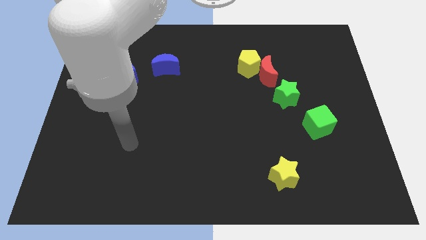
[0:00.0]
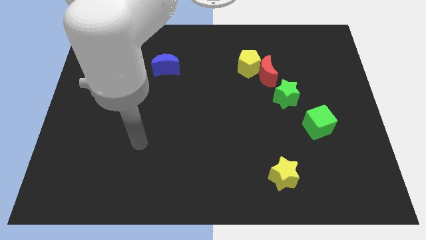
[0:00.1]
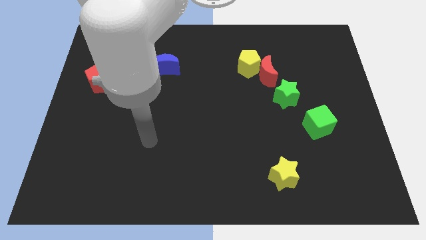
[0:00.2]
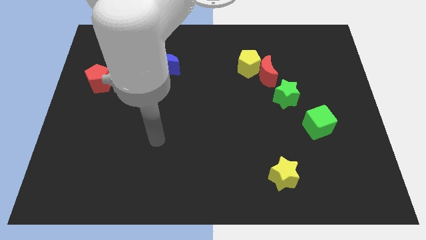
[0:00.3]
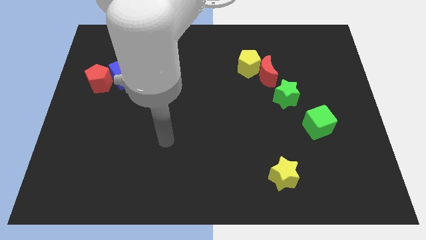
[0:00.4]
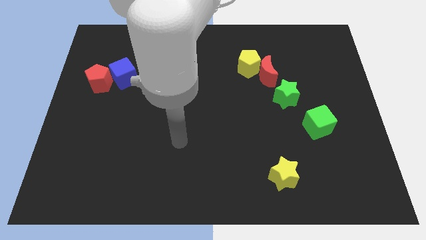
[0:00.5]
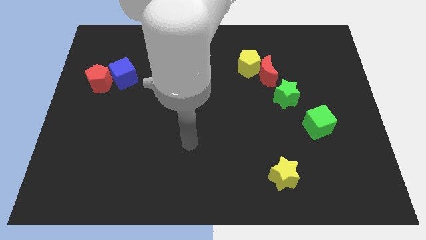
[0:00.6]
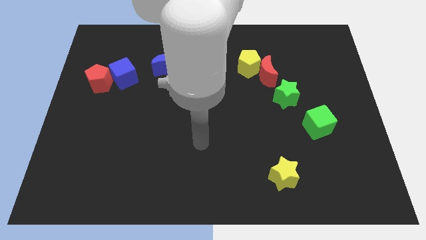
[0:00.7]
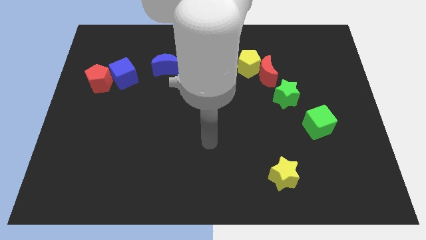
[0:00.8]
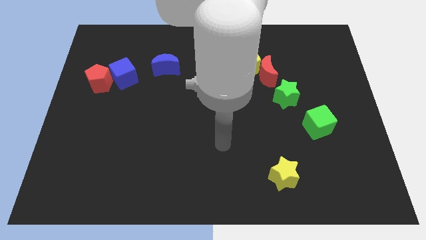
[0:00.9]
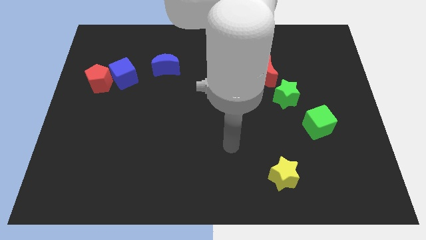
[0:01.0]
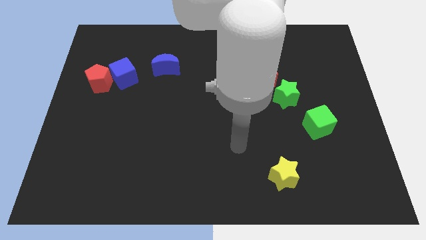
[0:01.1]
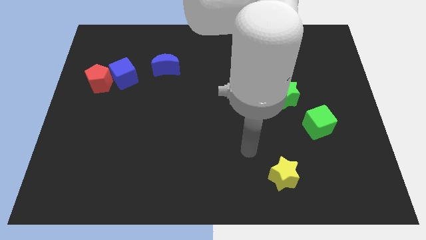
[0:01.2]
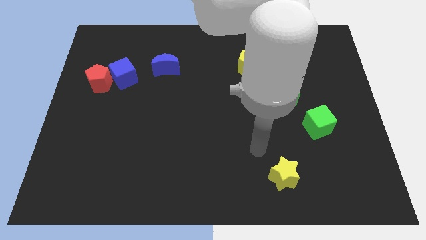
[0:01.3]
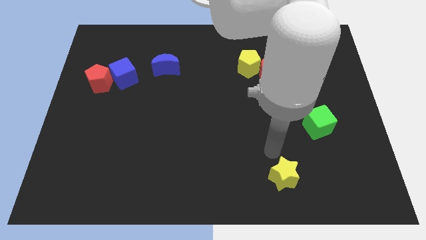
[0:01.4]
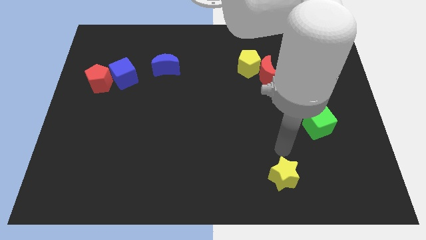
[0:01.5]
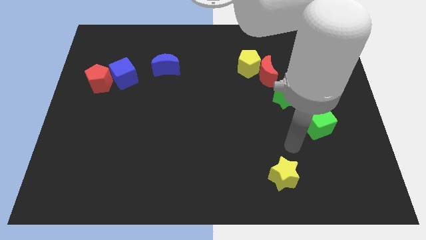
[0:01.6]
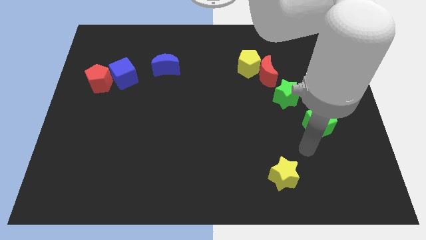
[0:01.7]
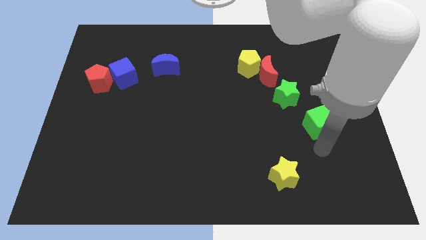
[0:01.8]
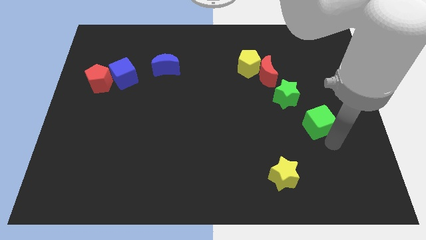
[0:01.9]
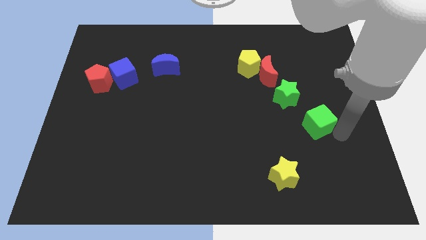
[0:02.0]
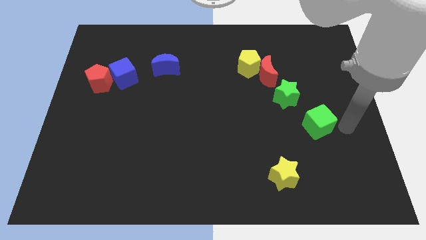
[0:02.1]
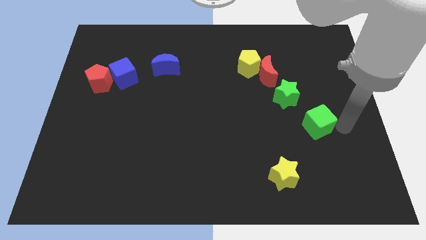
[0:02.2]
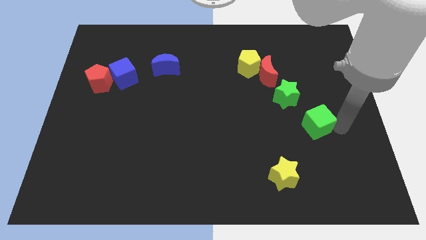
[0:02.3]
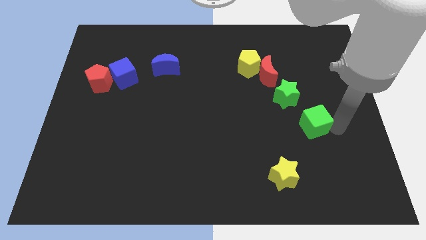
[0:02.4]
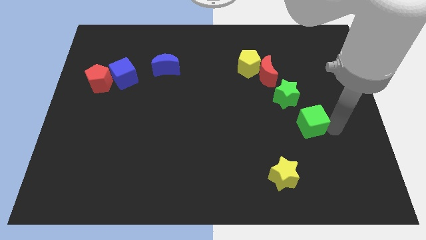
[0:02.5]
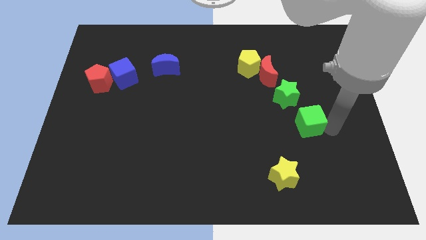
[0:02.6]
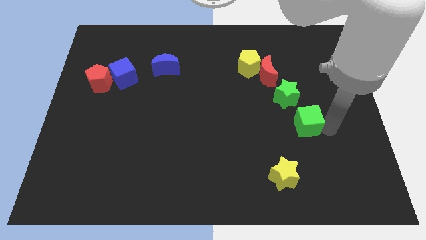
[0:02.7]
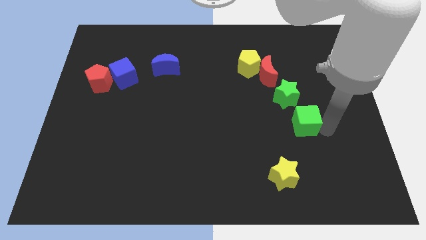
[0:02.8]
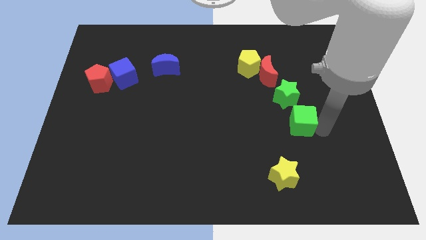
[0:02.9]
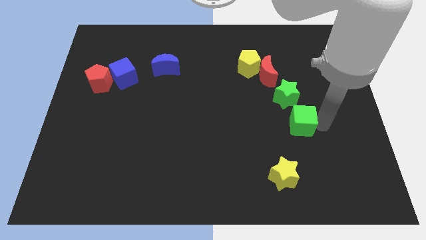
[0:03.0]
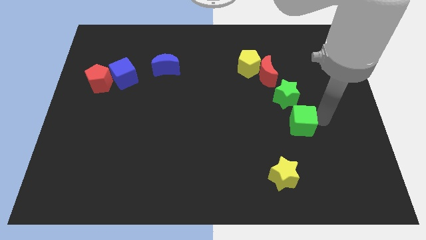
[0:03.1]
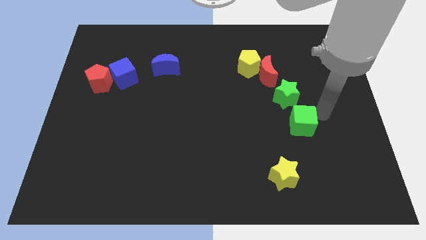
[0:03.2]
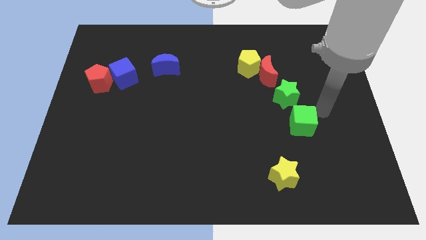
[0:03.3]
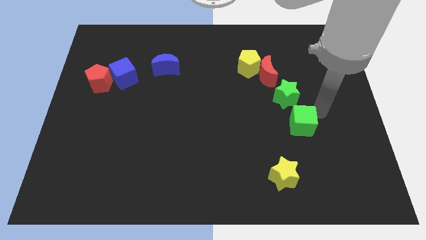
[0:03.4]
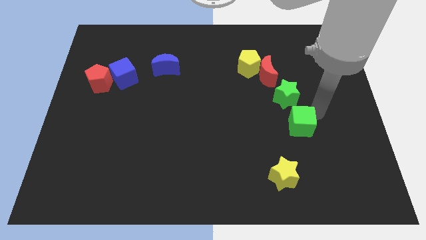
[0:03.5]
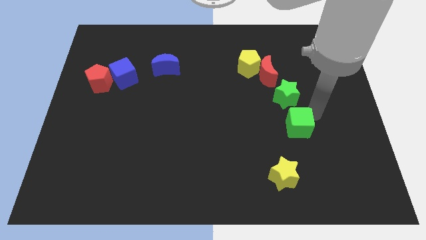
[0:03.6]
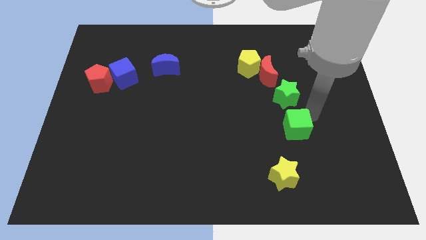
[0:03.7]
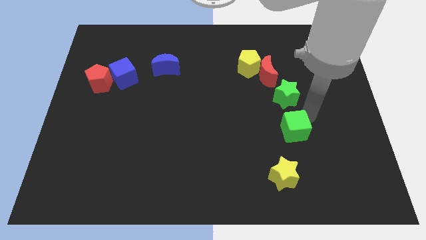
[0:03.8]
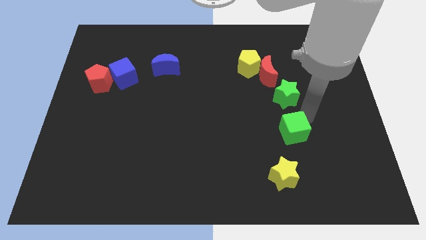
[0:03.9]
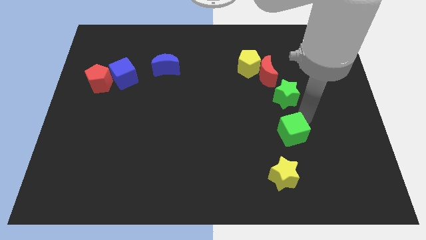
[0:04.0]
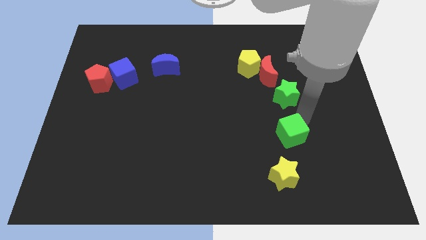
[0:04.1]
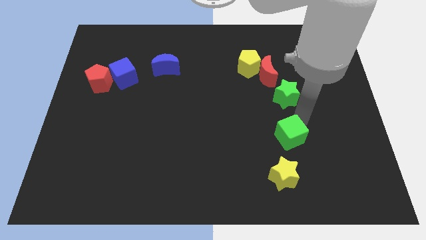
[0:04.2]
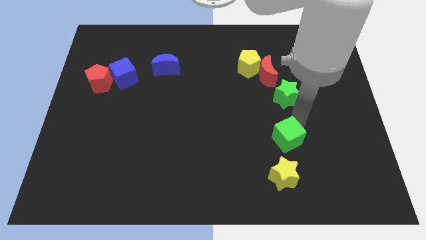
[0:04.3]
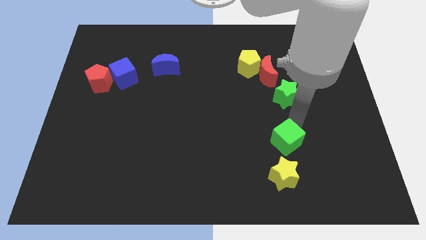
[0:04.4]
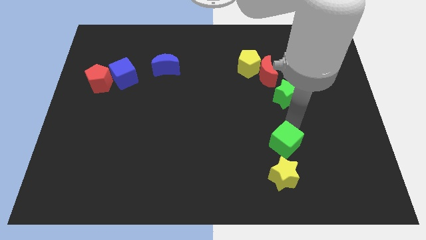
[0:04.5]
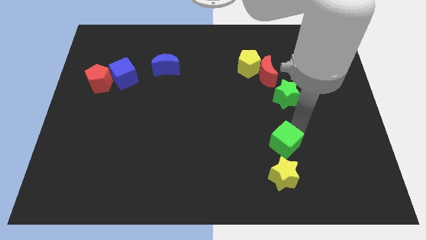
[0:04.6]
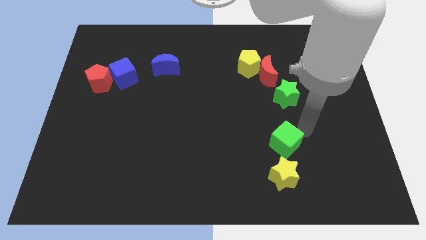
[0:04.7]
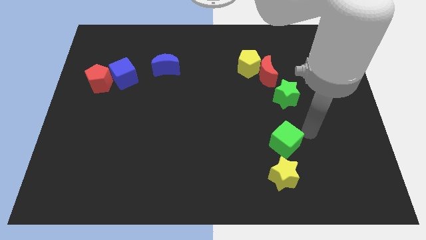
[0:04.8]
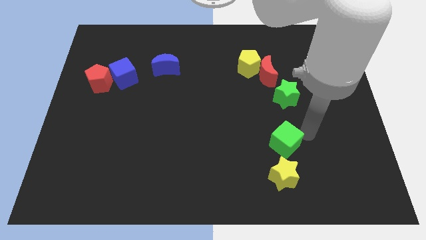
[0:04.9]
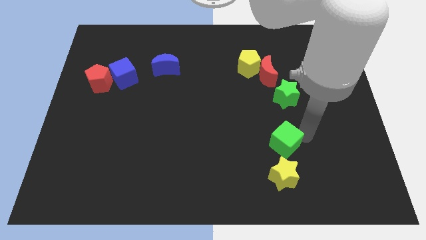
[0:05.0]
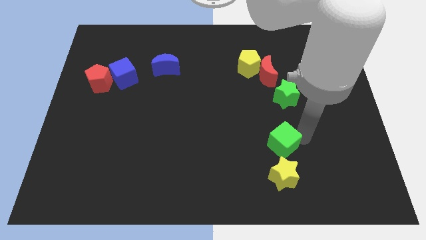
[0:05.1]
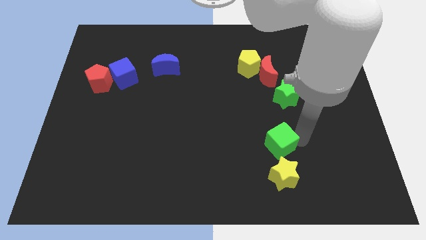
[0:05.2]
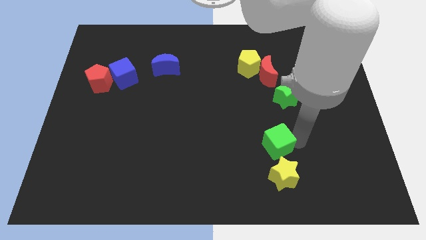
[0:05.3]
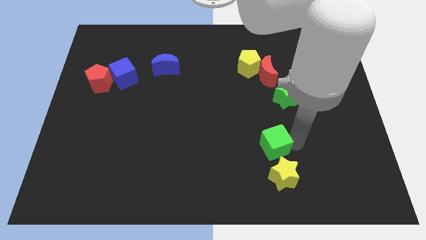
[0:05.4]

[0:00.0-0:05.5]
slide the green cube to the top left of the yellow star

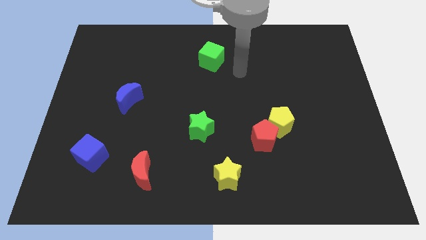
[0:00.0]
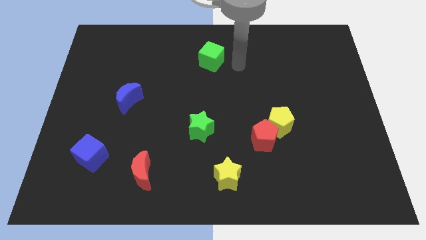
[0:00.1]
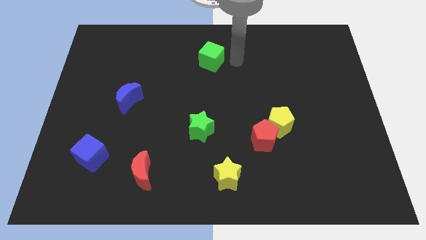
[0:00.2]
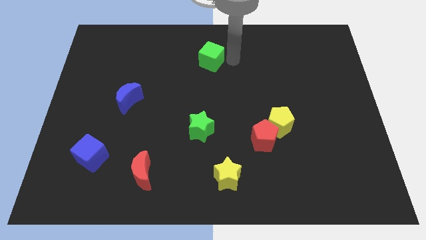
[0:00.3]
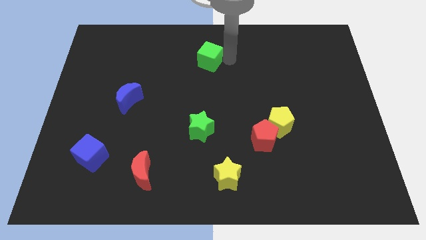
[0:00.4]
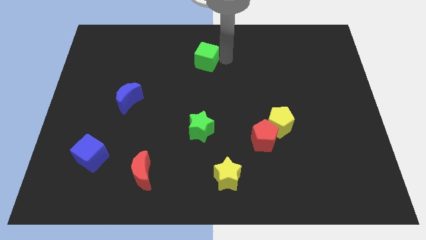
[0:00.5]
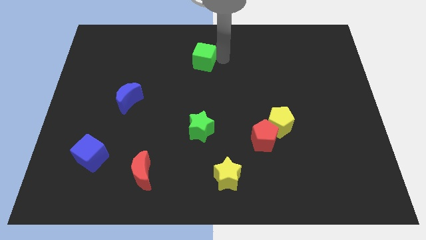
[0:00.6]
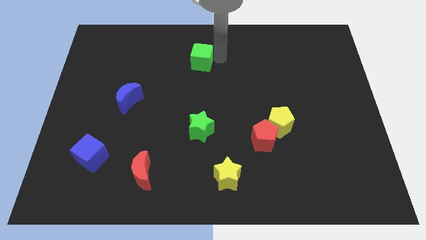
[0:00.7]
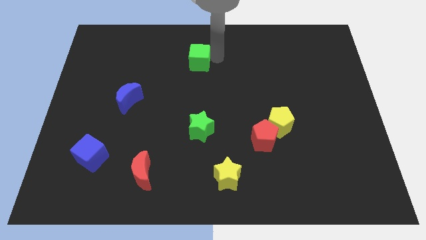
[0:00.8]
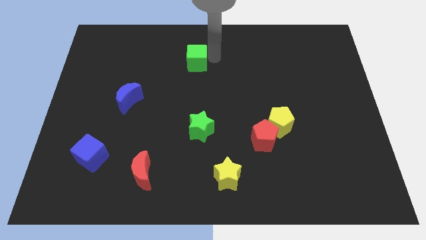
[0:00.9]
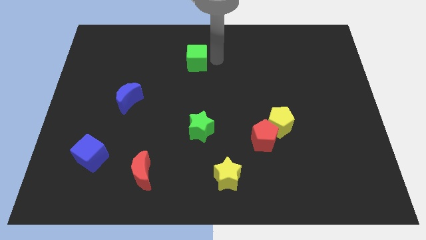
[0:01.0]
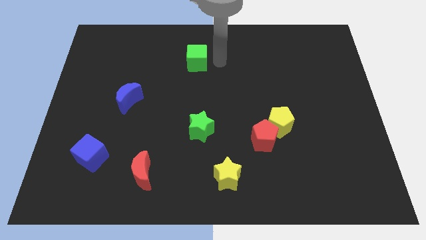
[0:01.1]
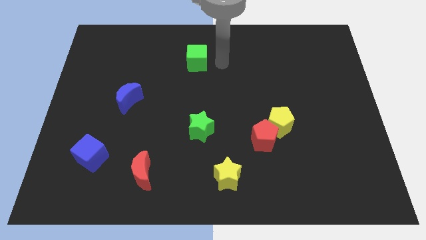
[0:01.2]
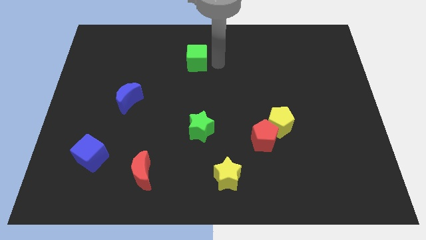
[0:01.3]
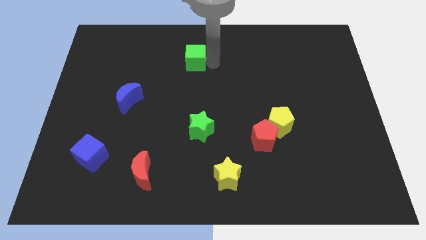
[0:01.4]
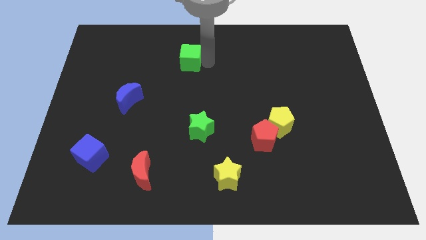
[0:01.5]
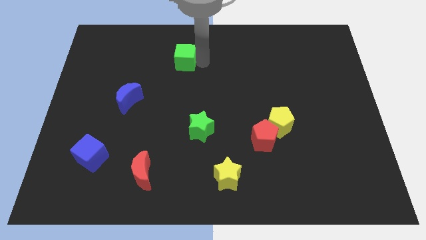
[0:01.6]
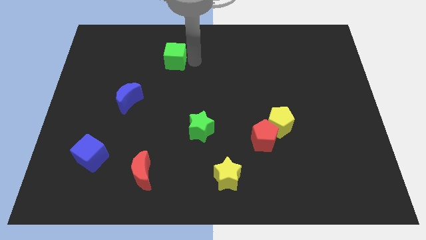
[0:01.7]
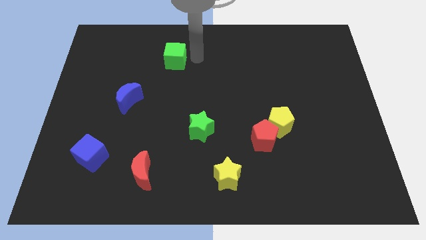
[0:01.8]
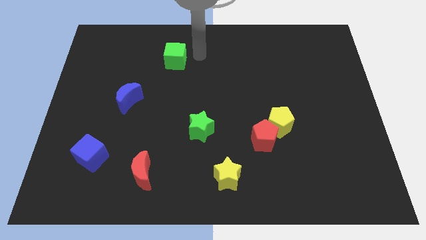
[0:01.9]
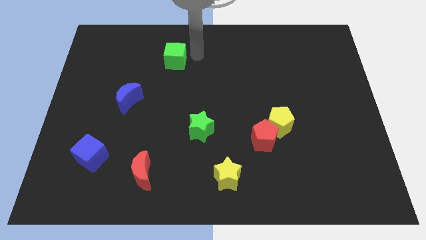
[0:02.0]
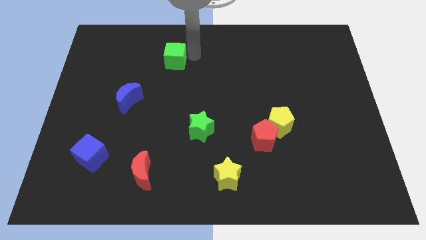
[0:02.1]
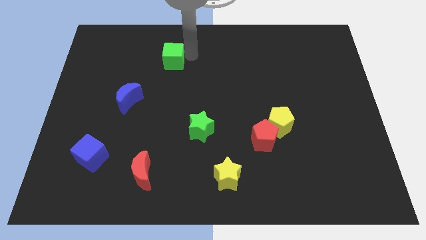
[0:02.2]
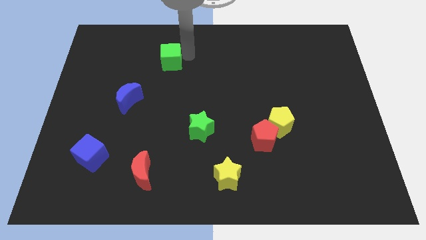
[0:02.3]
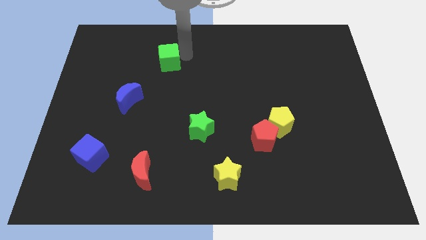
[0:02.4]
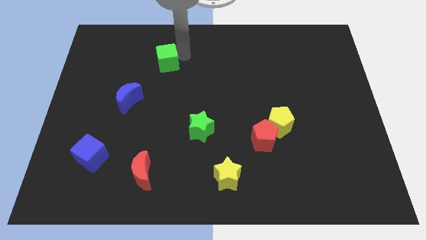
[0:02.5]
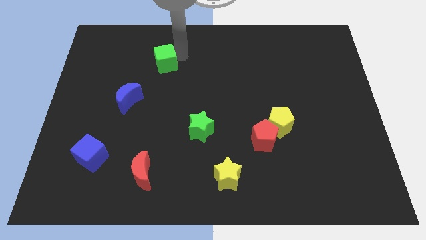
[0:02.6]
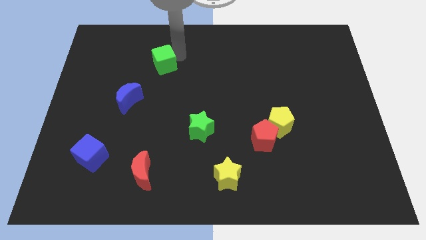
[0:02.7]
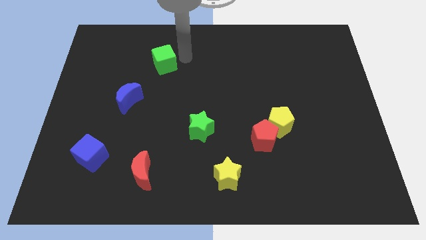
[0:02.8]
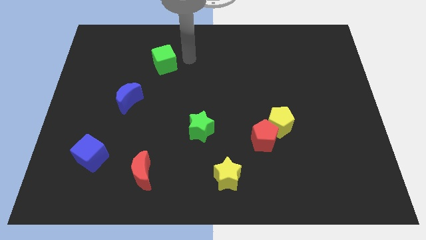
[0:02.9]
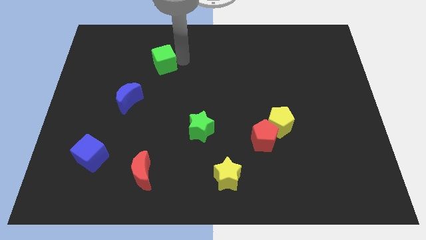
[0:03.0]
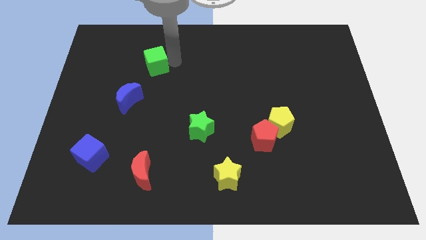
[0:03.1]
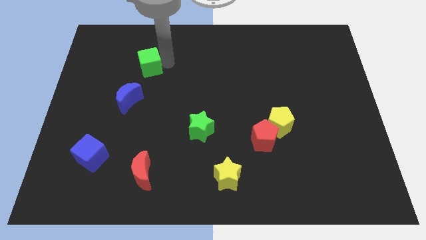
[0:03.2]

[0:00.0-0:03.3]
put the green cube to the top of the blue moon
